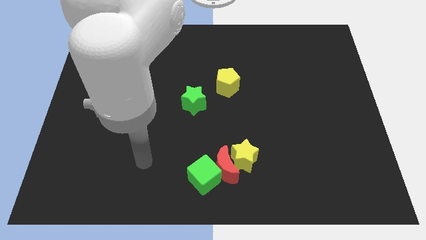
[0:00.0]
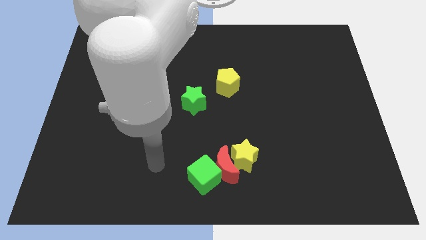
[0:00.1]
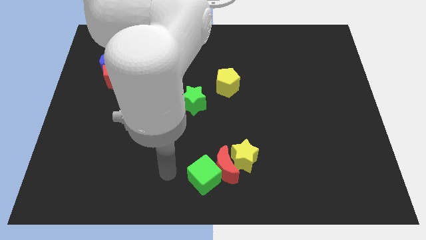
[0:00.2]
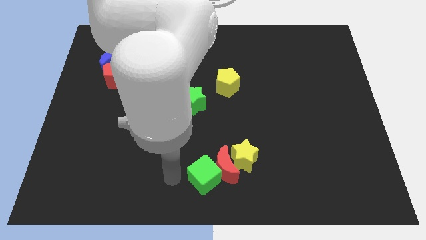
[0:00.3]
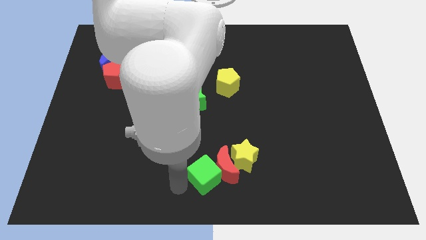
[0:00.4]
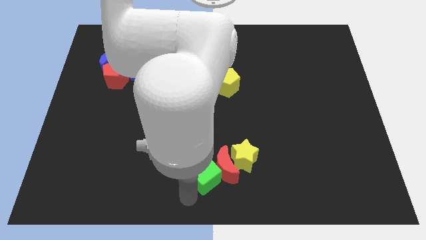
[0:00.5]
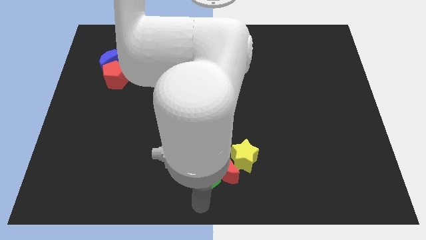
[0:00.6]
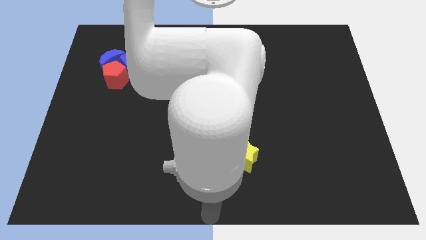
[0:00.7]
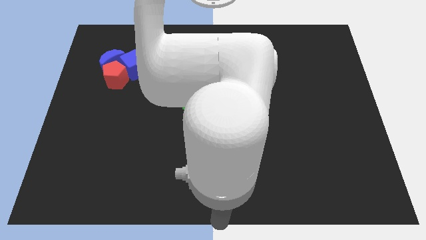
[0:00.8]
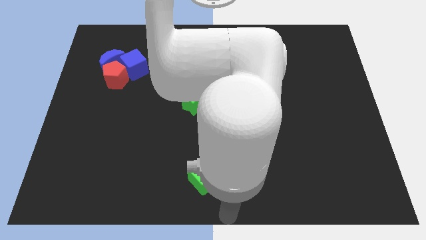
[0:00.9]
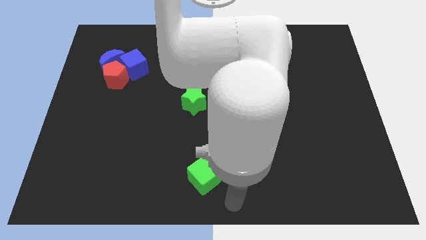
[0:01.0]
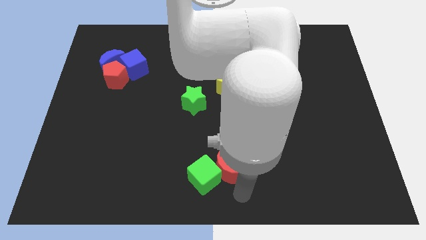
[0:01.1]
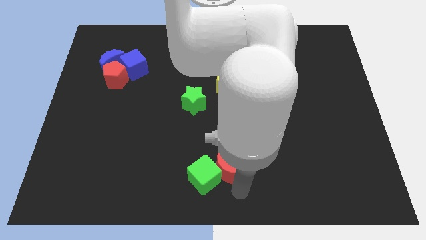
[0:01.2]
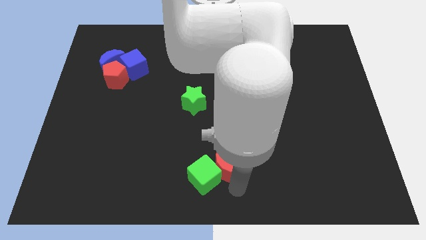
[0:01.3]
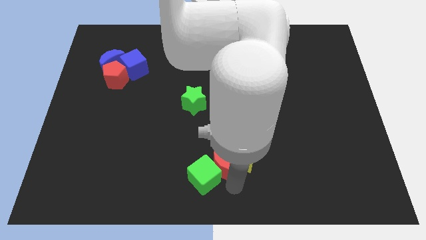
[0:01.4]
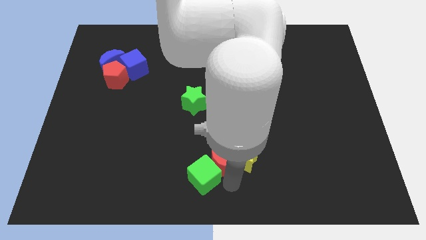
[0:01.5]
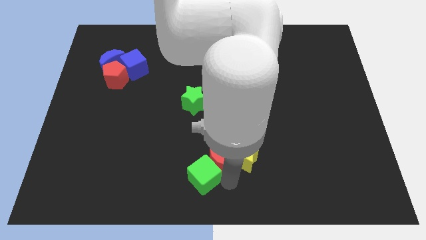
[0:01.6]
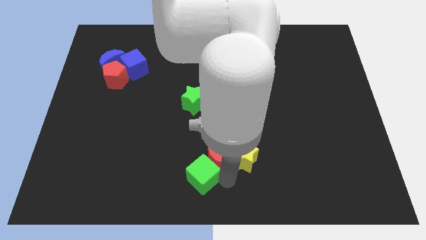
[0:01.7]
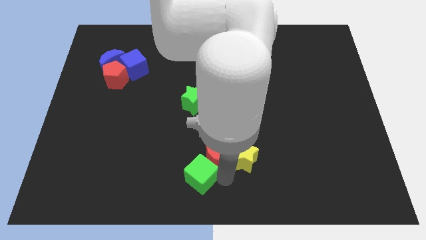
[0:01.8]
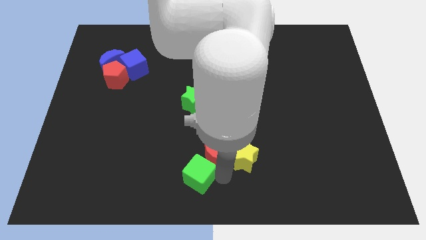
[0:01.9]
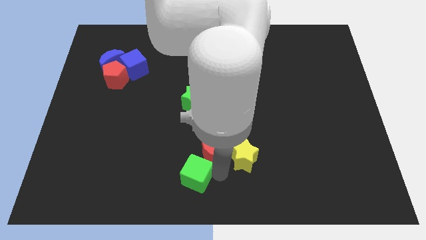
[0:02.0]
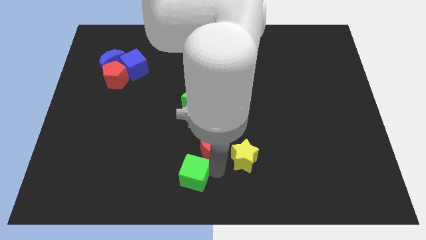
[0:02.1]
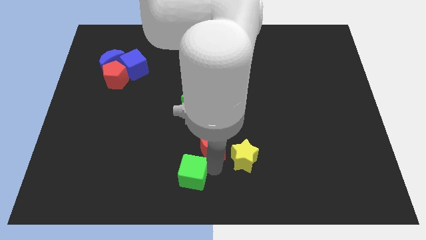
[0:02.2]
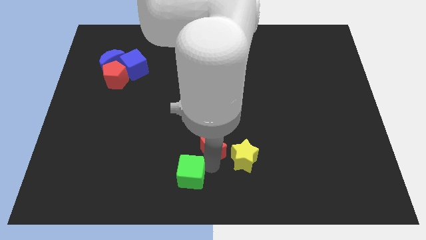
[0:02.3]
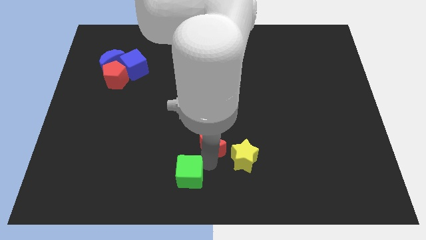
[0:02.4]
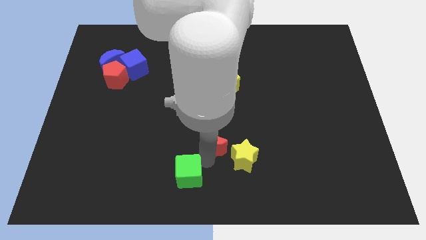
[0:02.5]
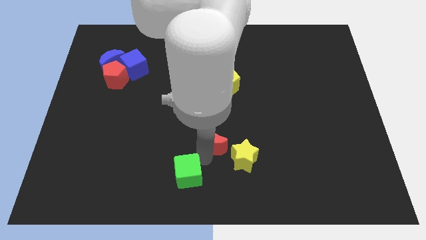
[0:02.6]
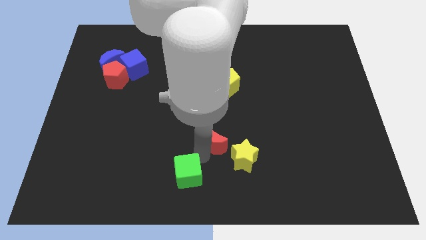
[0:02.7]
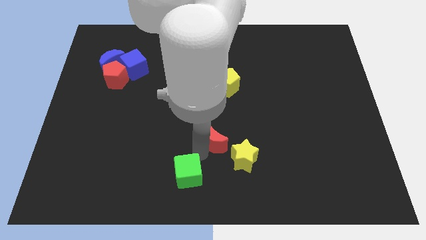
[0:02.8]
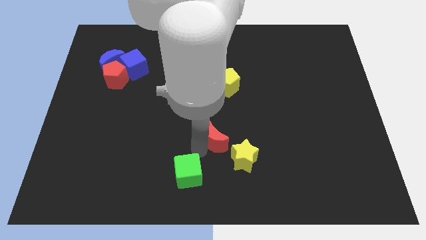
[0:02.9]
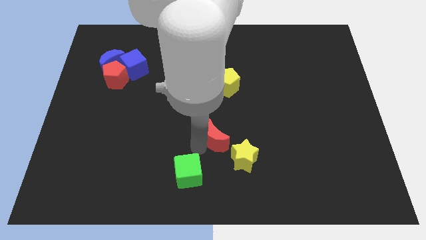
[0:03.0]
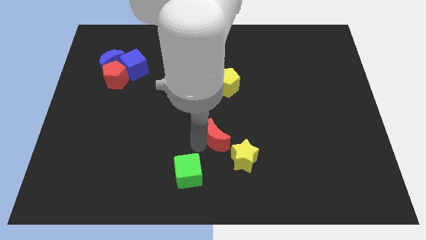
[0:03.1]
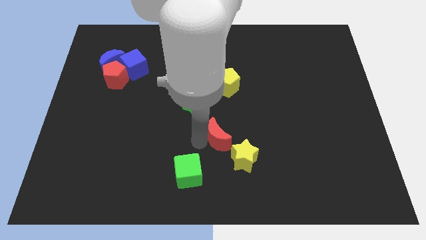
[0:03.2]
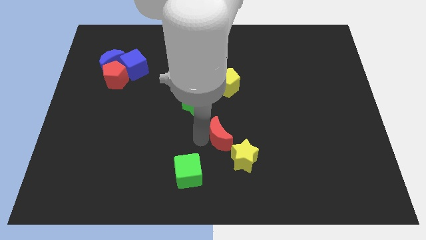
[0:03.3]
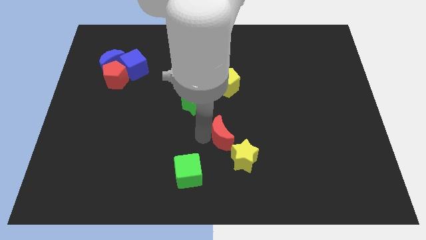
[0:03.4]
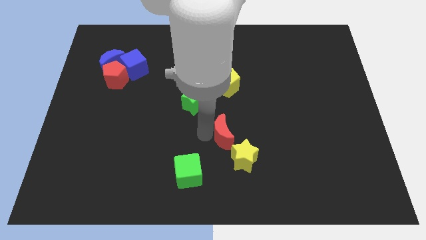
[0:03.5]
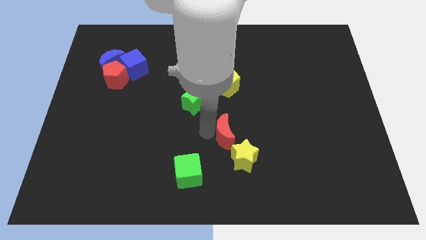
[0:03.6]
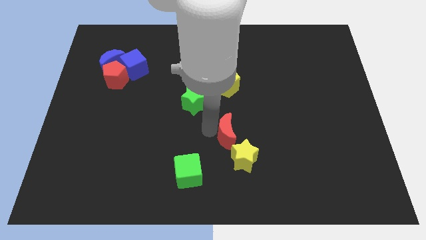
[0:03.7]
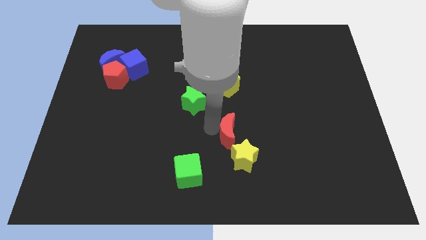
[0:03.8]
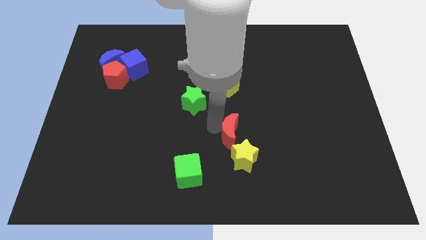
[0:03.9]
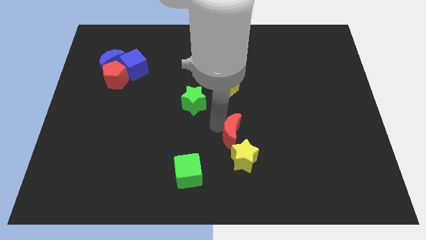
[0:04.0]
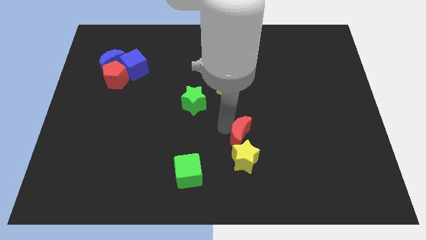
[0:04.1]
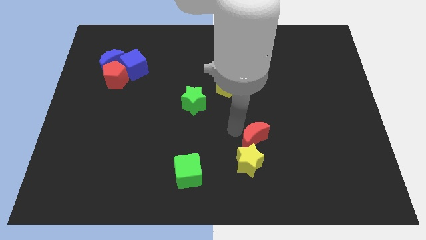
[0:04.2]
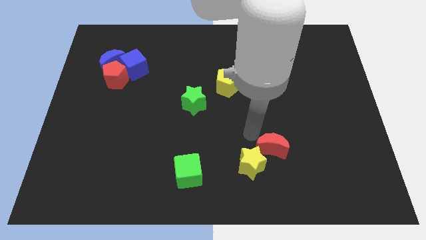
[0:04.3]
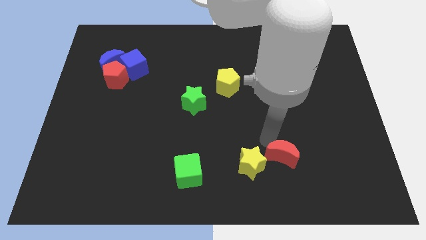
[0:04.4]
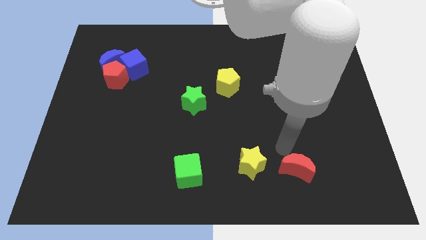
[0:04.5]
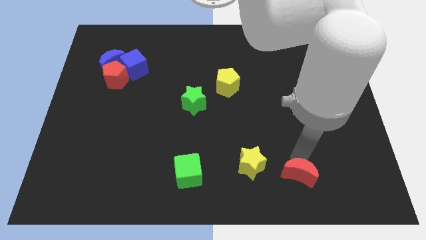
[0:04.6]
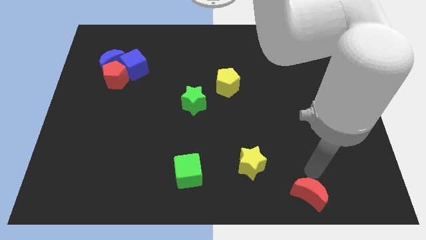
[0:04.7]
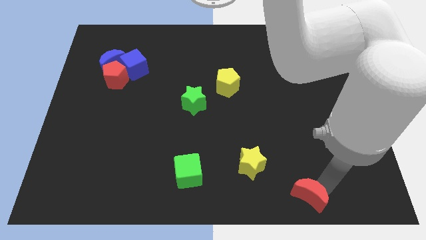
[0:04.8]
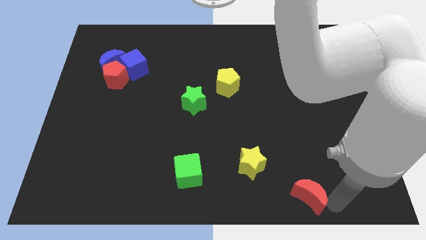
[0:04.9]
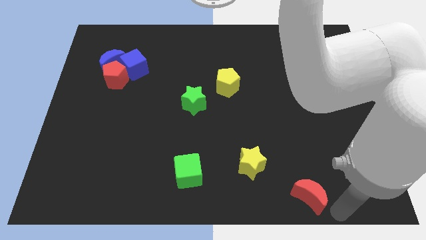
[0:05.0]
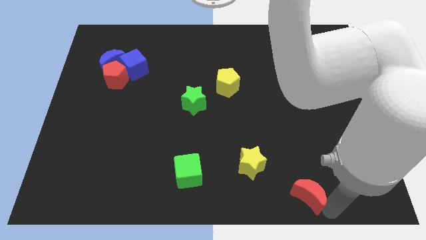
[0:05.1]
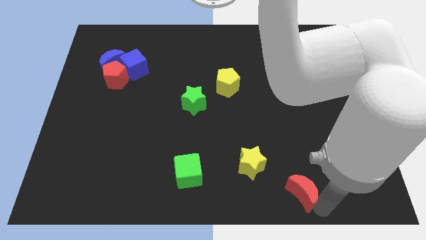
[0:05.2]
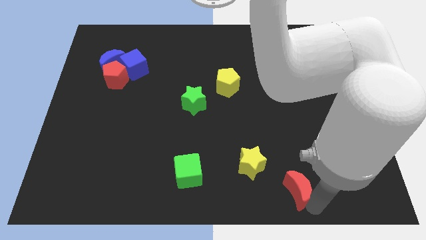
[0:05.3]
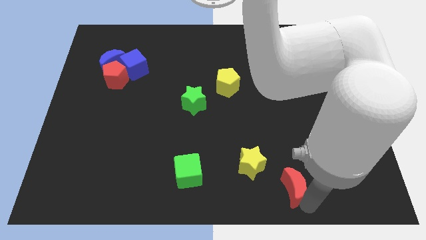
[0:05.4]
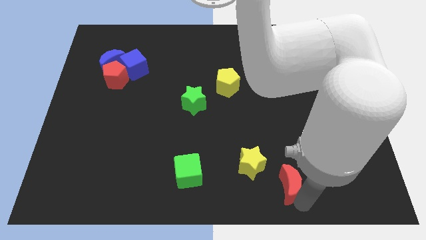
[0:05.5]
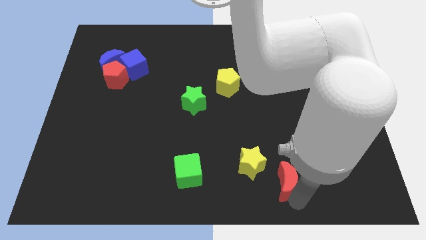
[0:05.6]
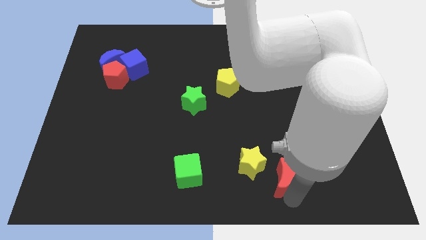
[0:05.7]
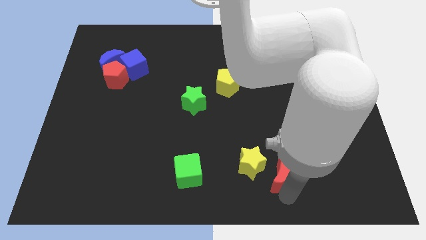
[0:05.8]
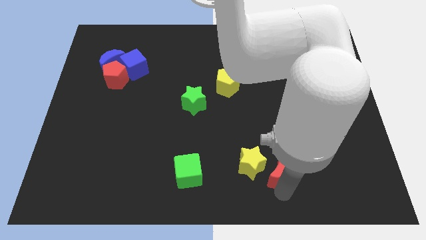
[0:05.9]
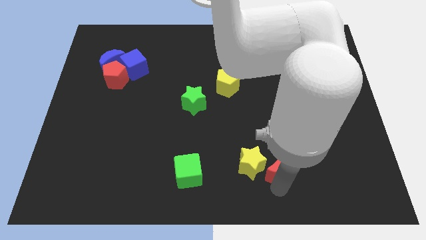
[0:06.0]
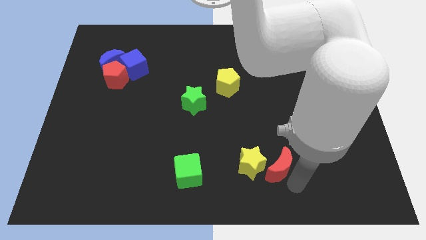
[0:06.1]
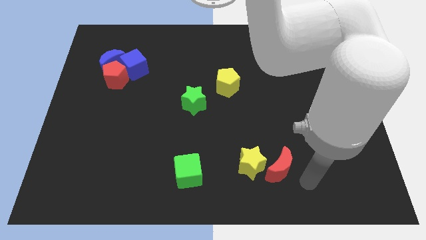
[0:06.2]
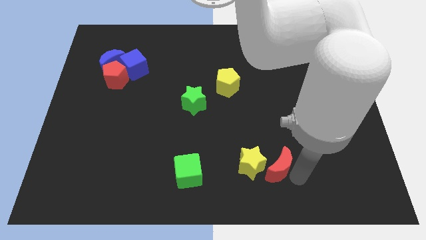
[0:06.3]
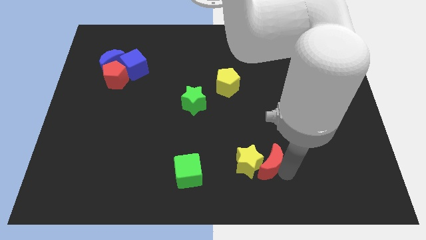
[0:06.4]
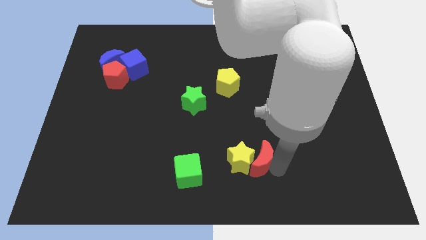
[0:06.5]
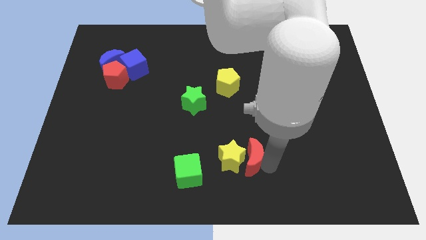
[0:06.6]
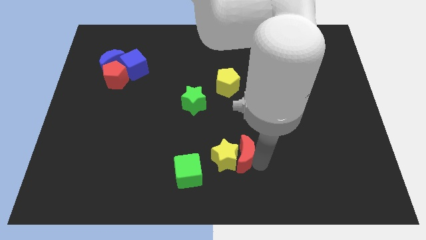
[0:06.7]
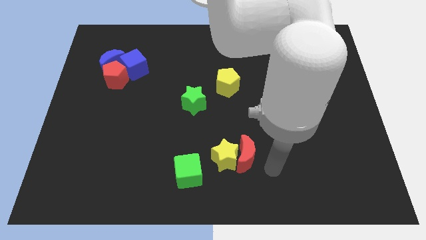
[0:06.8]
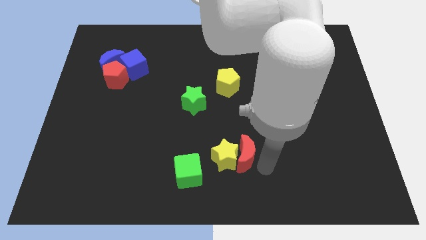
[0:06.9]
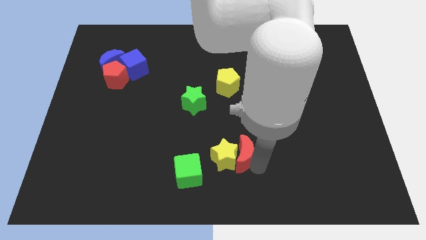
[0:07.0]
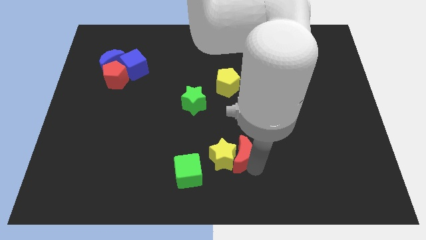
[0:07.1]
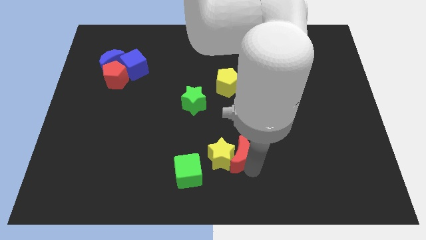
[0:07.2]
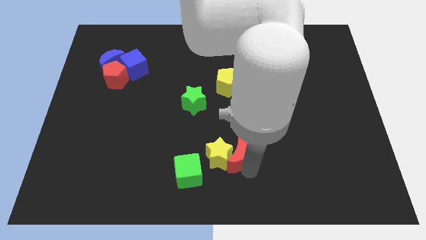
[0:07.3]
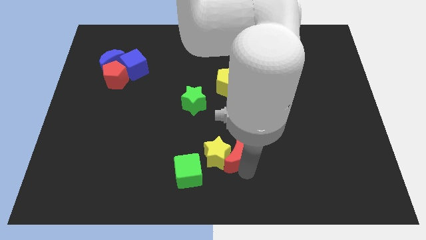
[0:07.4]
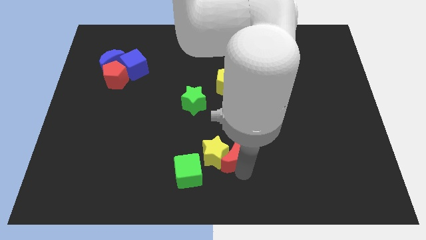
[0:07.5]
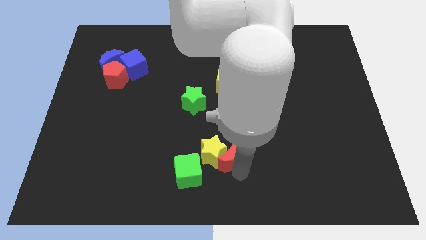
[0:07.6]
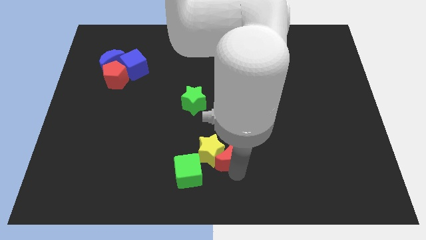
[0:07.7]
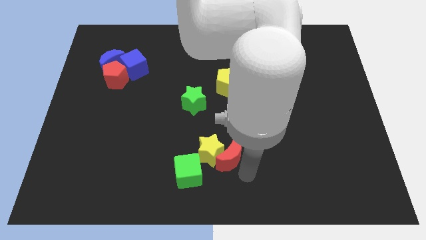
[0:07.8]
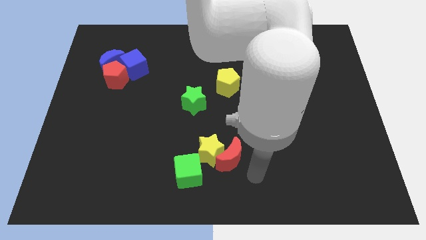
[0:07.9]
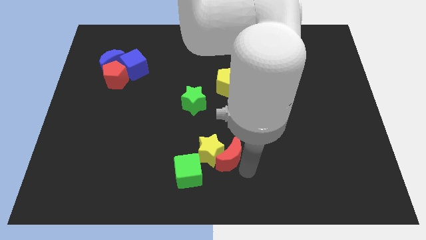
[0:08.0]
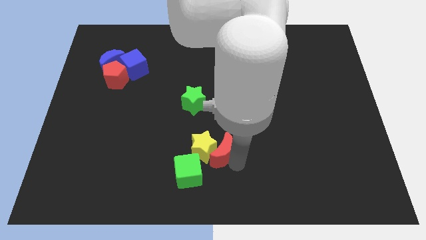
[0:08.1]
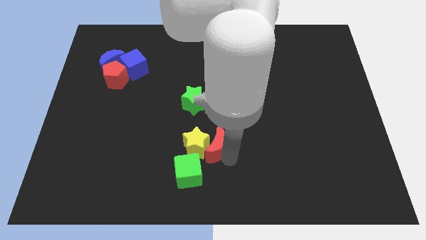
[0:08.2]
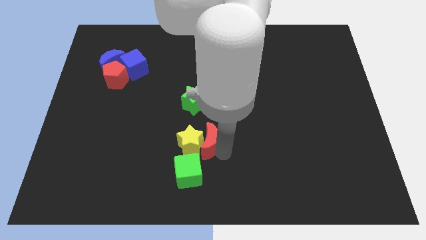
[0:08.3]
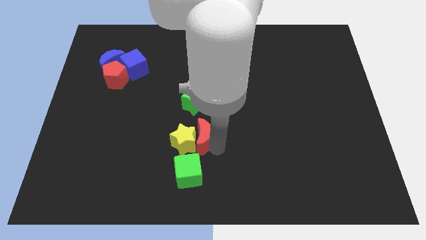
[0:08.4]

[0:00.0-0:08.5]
push the red moon a little bit upwards and then left
